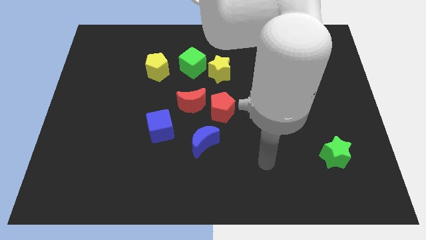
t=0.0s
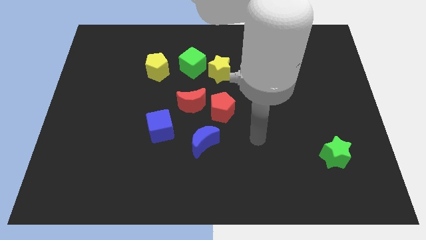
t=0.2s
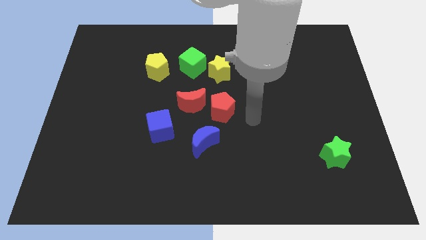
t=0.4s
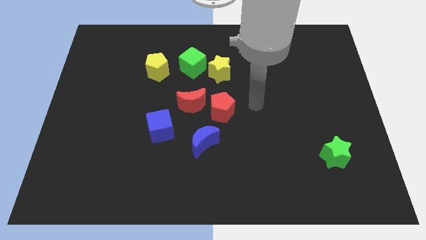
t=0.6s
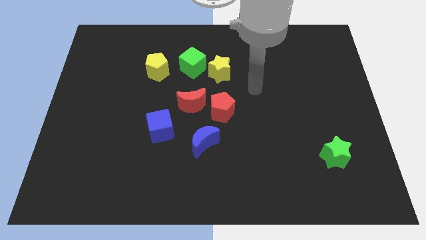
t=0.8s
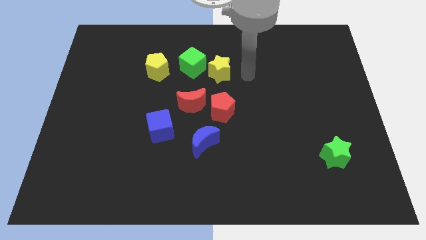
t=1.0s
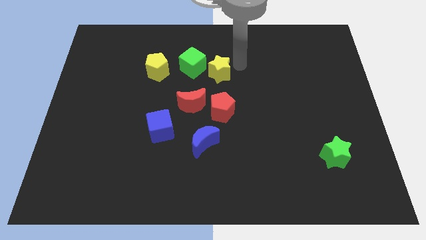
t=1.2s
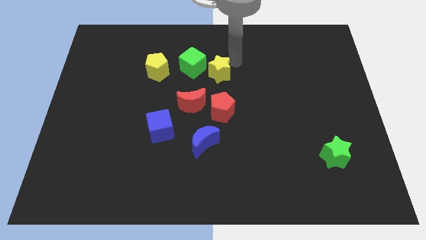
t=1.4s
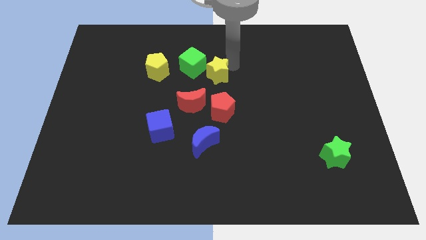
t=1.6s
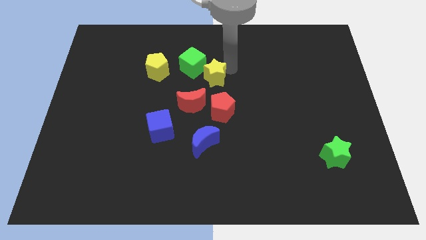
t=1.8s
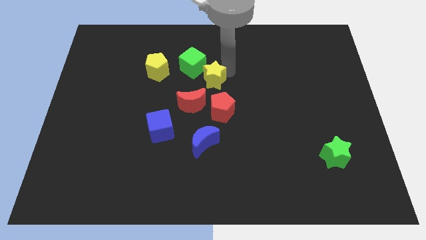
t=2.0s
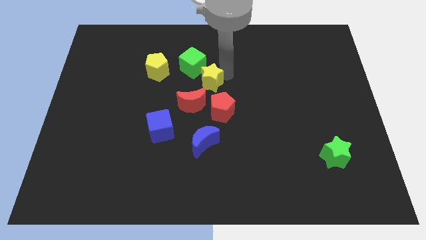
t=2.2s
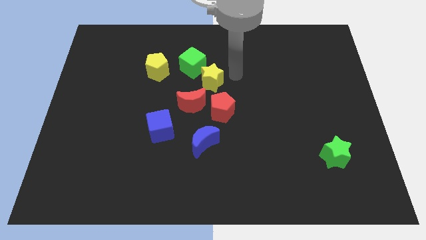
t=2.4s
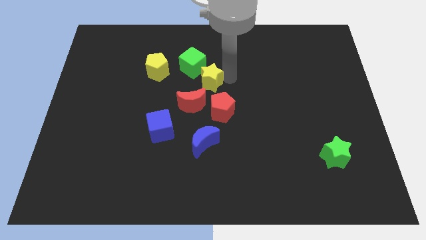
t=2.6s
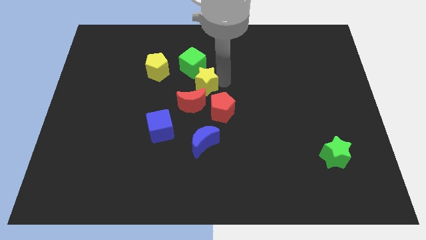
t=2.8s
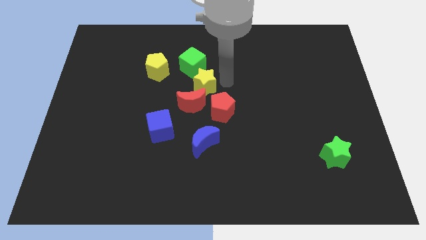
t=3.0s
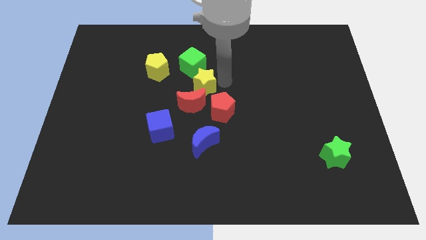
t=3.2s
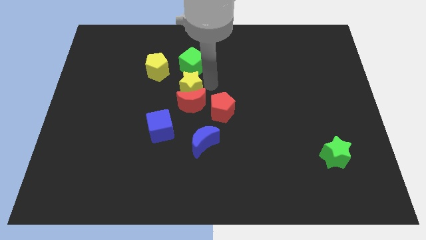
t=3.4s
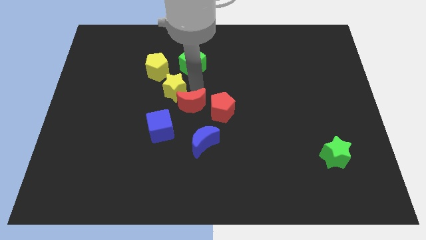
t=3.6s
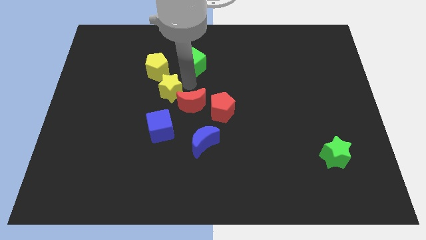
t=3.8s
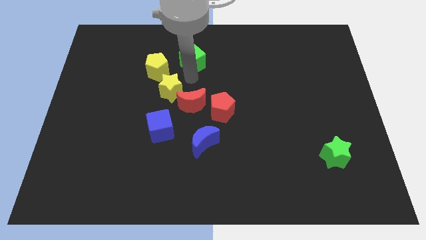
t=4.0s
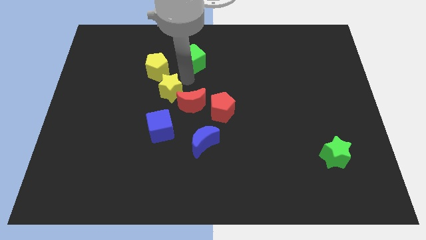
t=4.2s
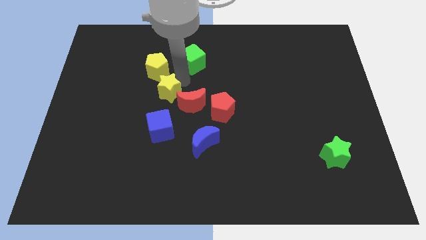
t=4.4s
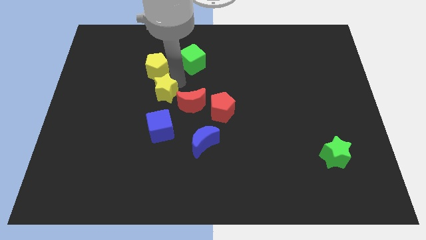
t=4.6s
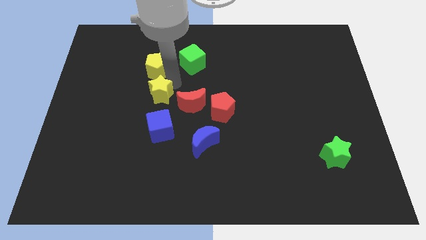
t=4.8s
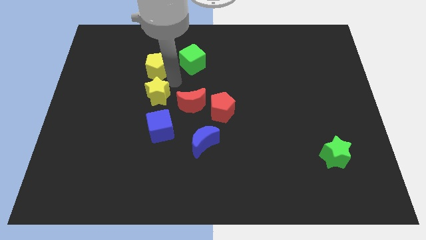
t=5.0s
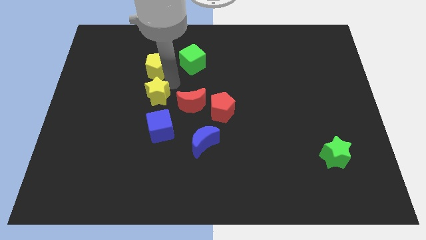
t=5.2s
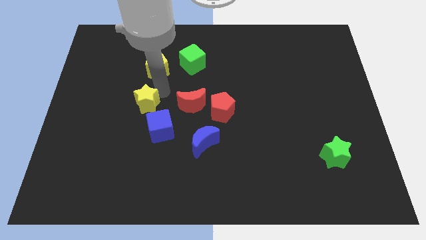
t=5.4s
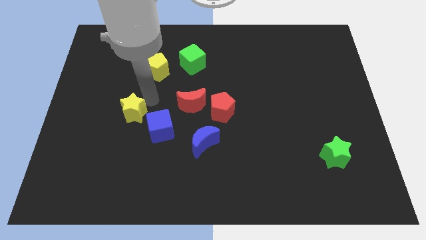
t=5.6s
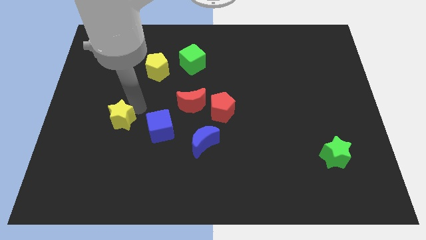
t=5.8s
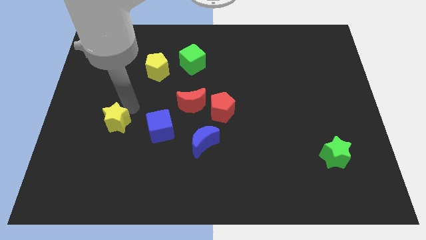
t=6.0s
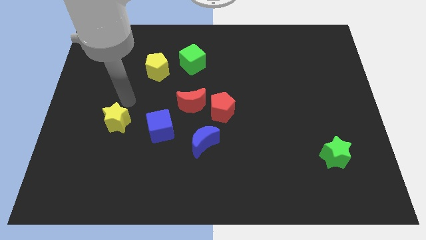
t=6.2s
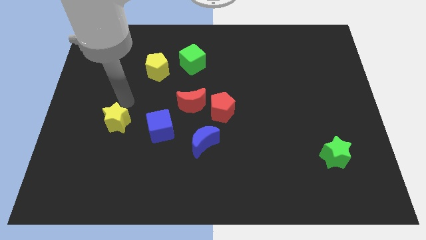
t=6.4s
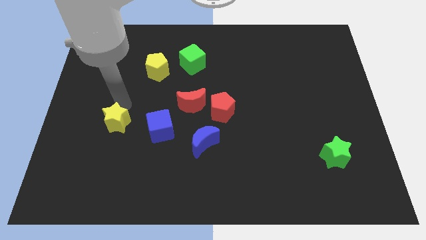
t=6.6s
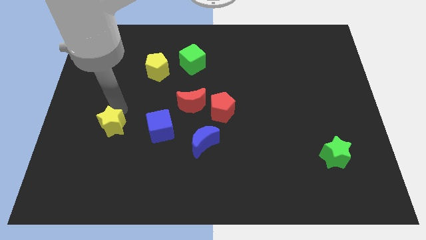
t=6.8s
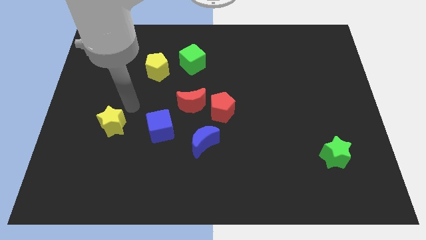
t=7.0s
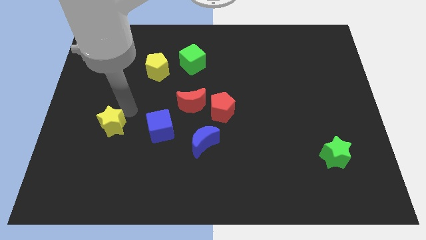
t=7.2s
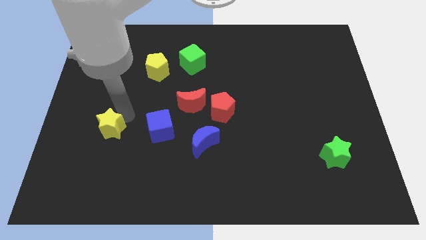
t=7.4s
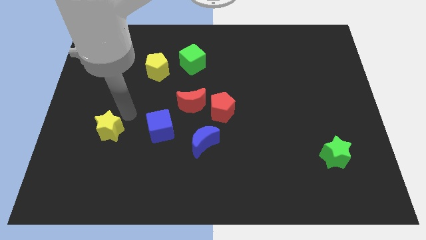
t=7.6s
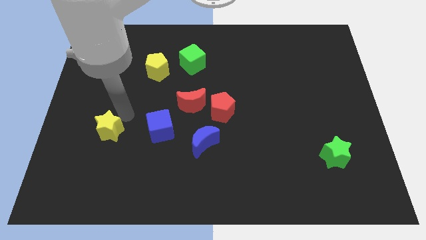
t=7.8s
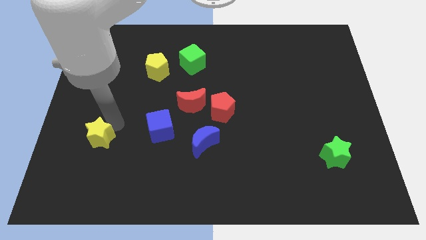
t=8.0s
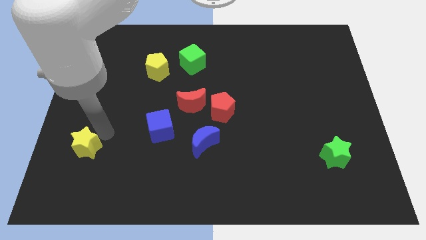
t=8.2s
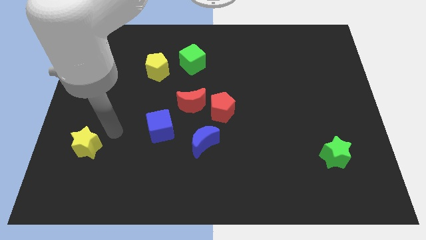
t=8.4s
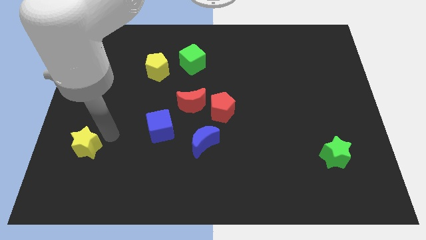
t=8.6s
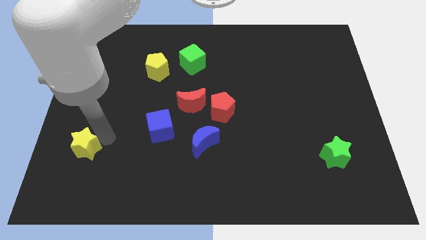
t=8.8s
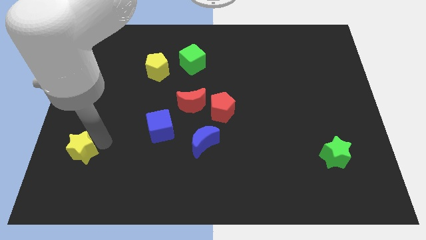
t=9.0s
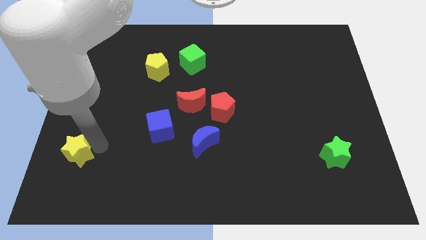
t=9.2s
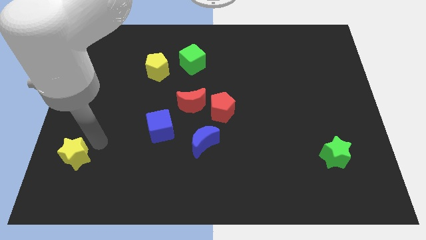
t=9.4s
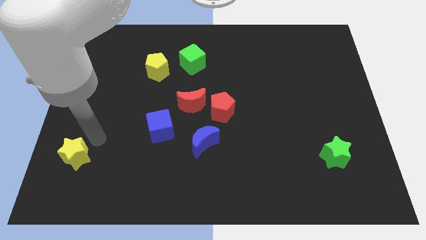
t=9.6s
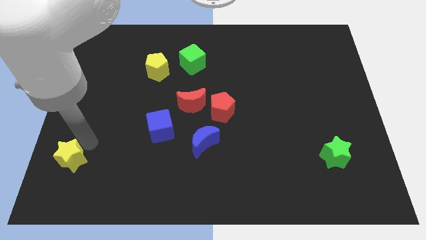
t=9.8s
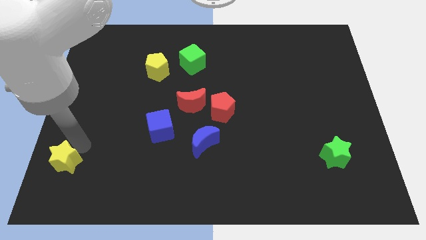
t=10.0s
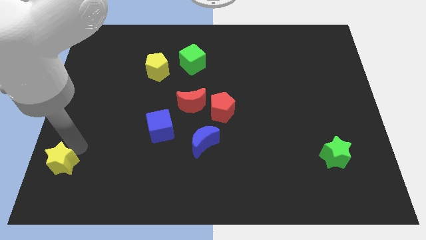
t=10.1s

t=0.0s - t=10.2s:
slide the yellow star to the bottom left

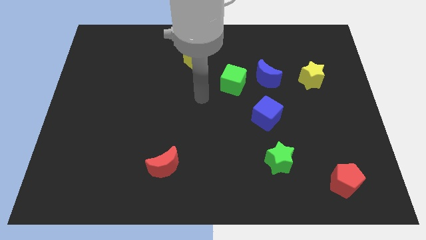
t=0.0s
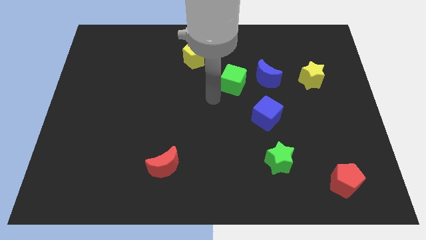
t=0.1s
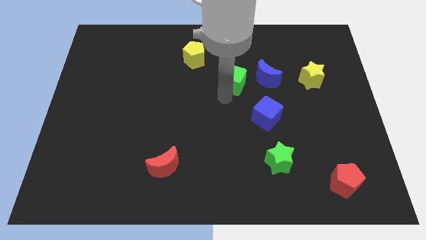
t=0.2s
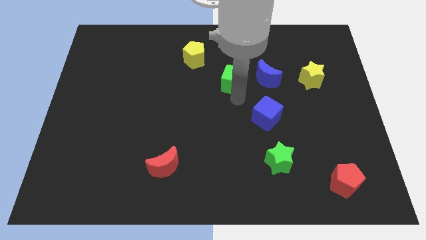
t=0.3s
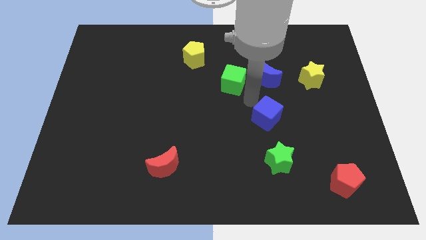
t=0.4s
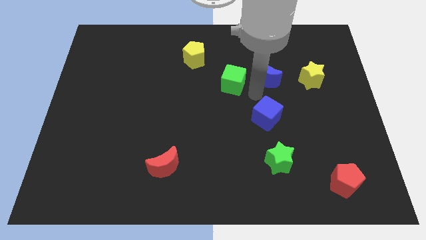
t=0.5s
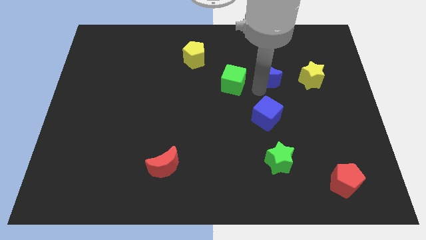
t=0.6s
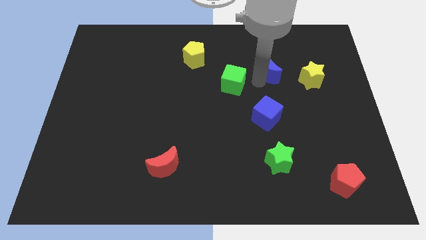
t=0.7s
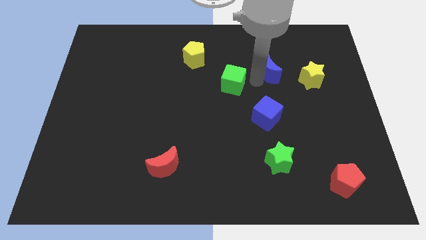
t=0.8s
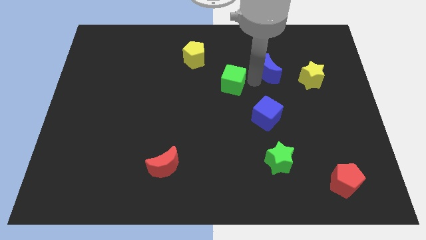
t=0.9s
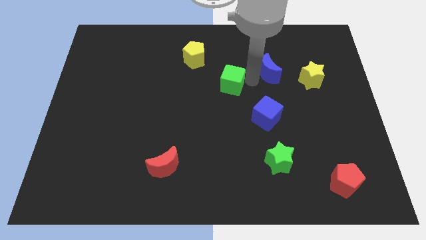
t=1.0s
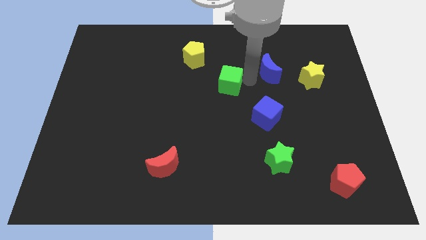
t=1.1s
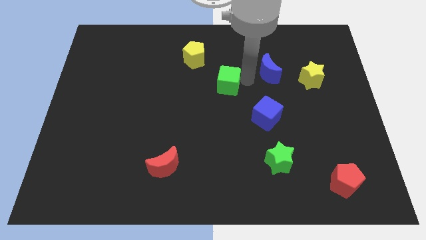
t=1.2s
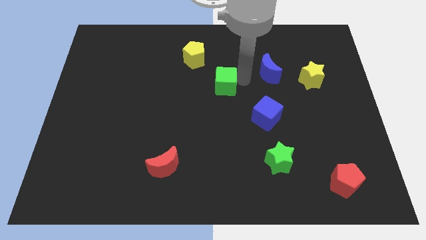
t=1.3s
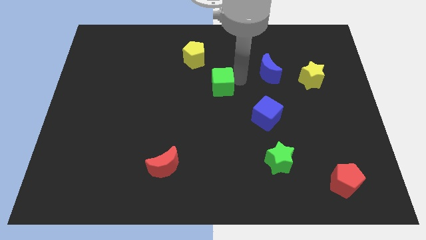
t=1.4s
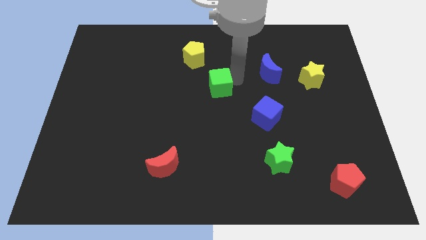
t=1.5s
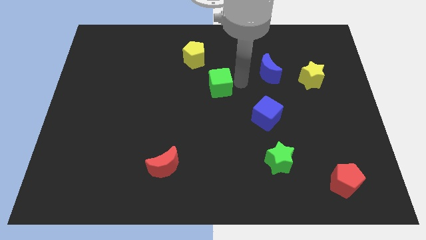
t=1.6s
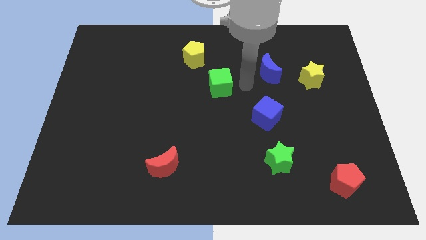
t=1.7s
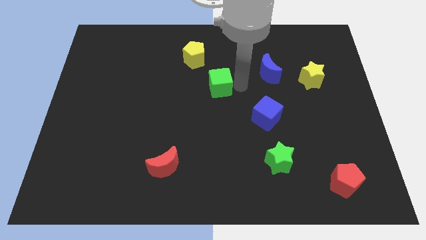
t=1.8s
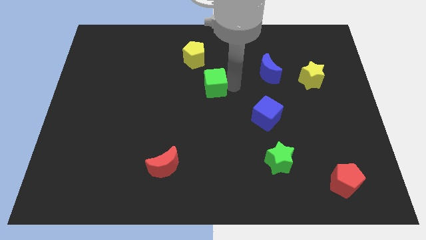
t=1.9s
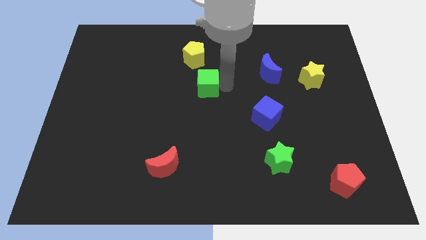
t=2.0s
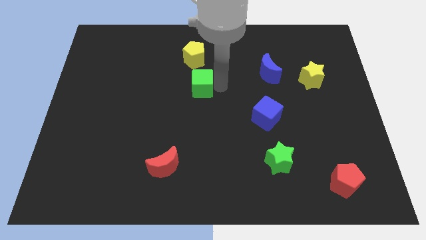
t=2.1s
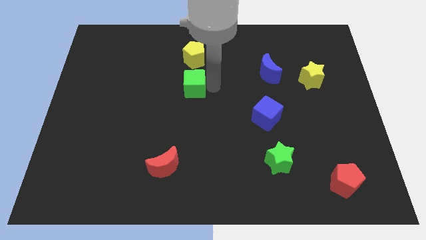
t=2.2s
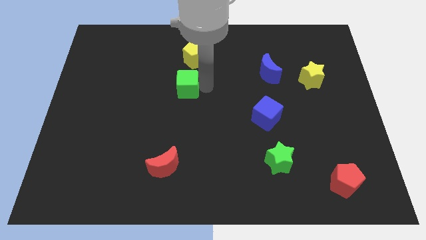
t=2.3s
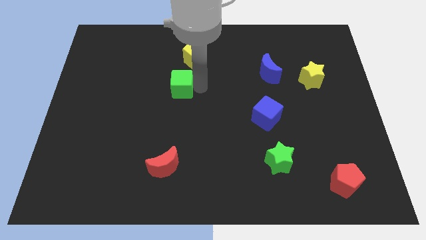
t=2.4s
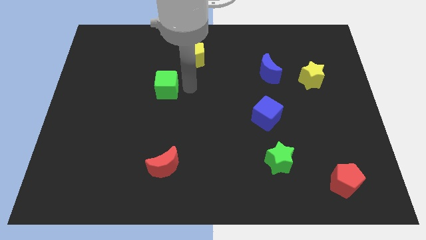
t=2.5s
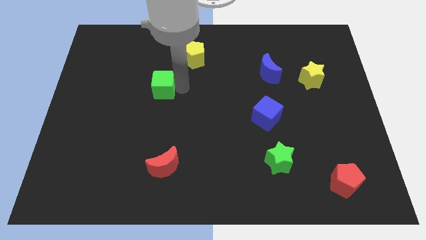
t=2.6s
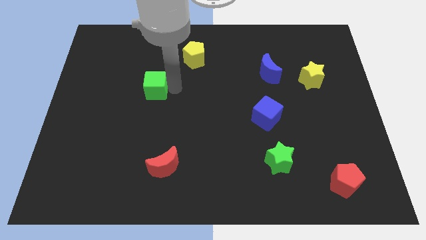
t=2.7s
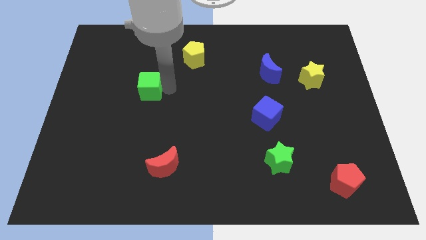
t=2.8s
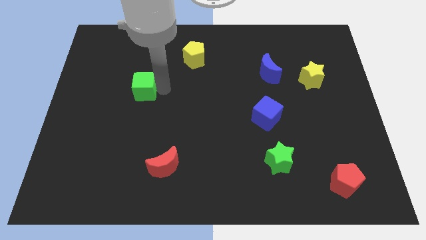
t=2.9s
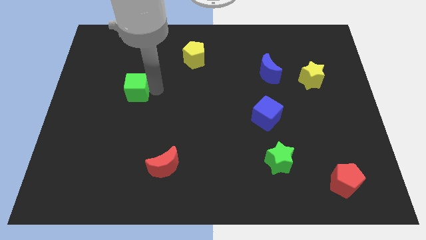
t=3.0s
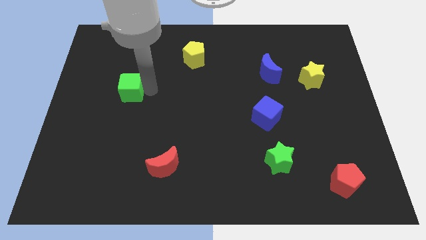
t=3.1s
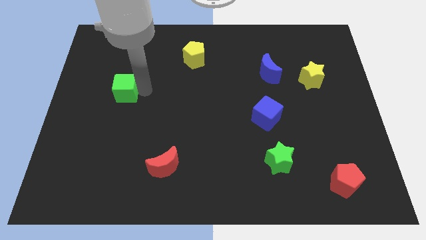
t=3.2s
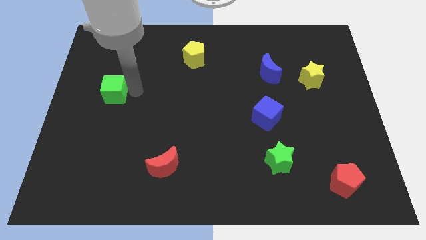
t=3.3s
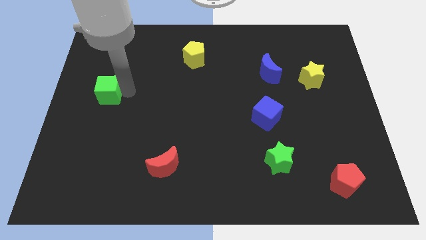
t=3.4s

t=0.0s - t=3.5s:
put the green cube to the left side
